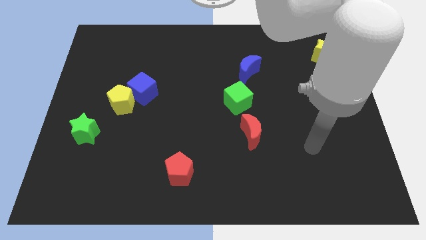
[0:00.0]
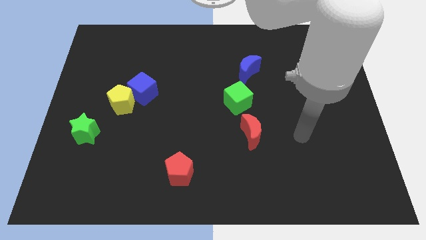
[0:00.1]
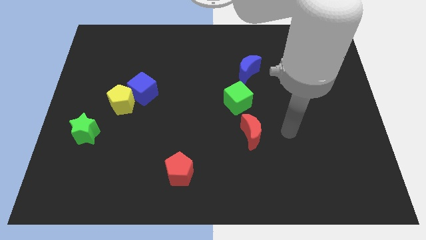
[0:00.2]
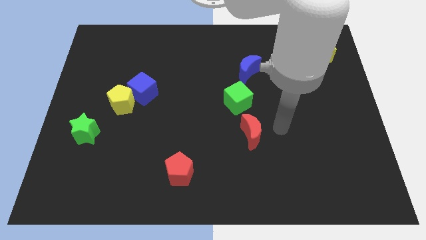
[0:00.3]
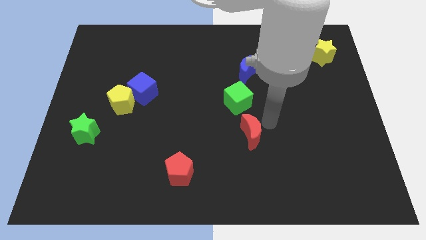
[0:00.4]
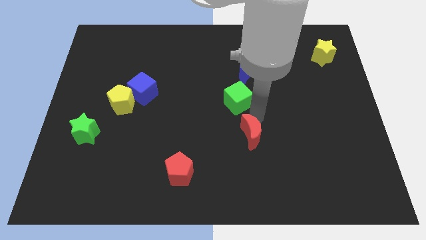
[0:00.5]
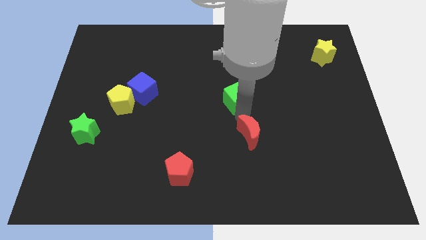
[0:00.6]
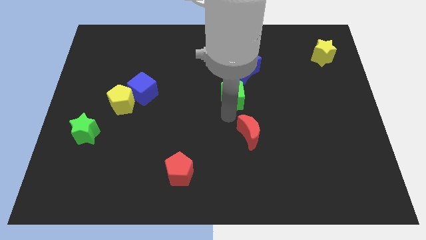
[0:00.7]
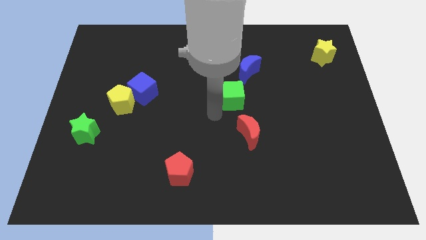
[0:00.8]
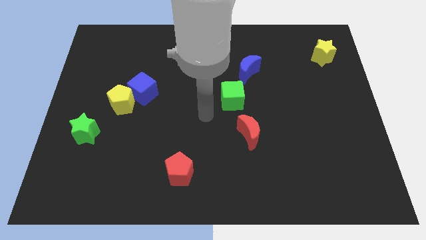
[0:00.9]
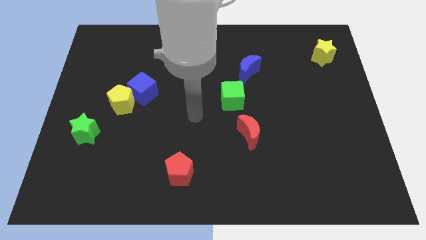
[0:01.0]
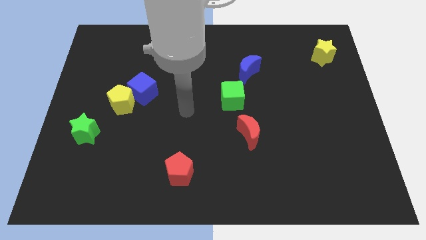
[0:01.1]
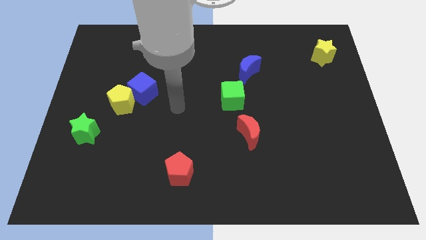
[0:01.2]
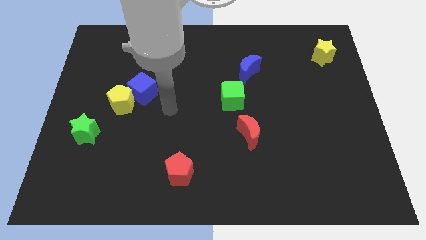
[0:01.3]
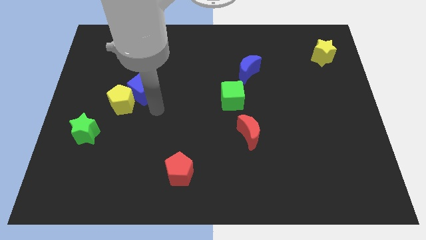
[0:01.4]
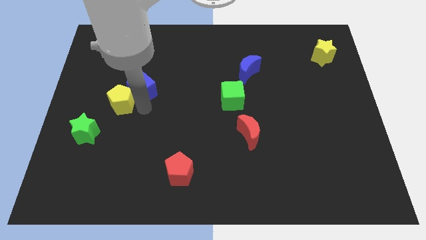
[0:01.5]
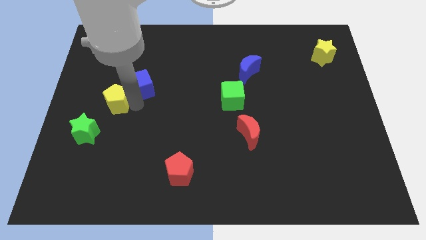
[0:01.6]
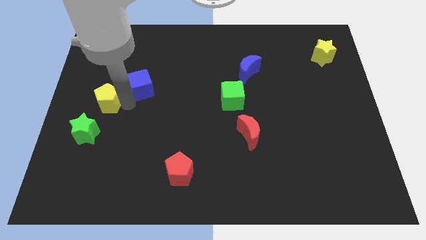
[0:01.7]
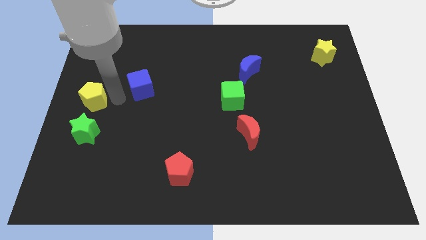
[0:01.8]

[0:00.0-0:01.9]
pull the blue cube apart from the yellow pentagon

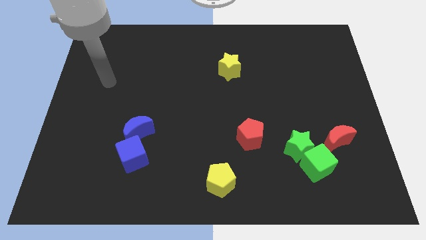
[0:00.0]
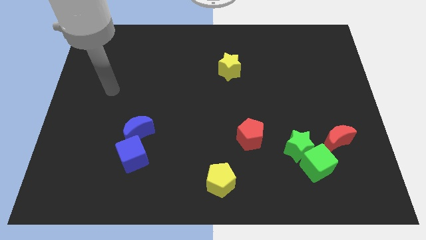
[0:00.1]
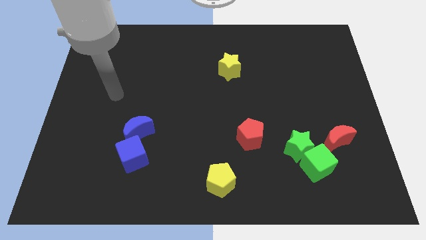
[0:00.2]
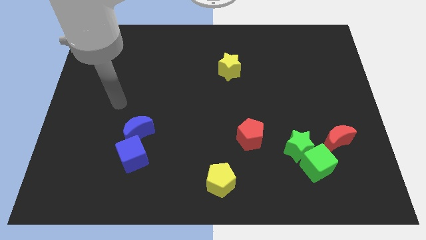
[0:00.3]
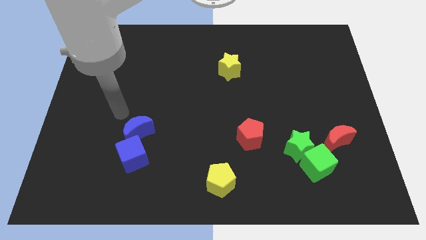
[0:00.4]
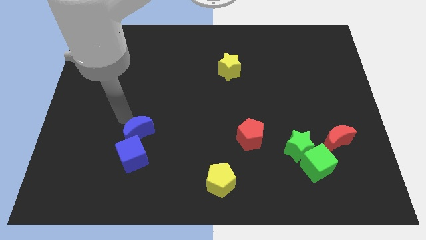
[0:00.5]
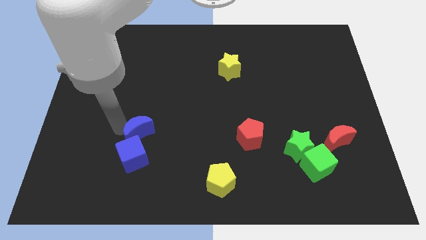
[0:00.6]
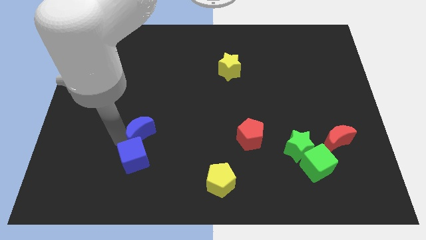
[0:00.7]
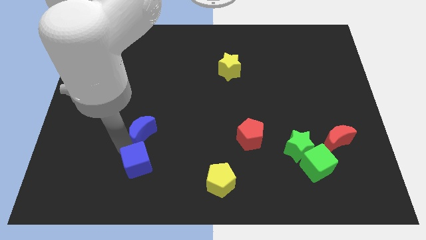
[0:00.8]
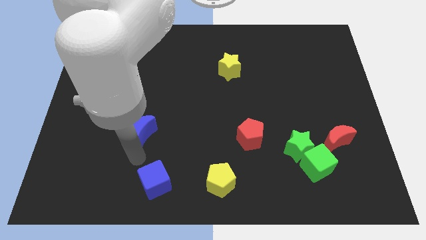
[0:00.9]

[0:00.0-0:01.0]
separate the blue moon from the blue cube

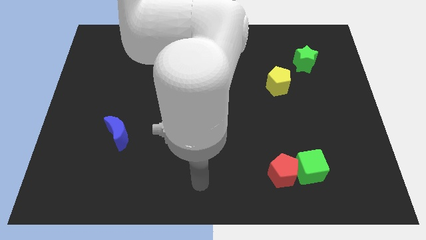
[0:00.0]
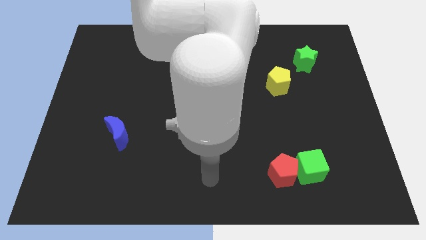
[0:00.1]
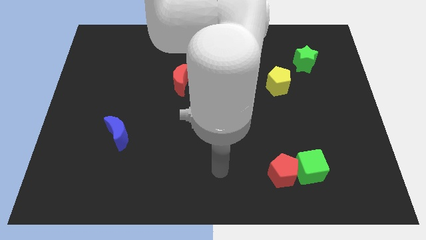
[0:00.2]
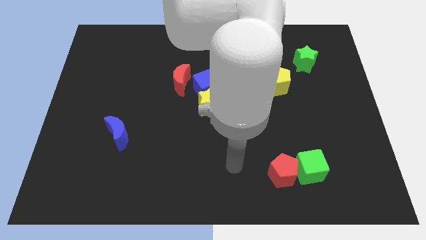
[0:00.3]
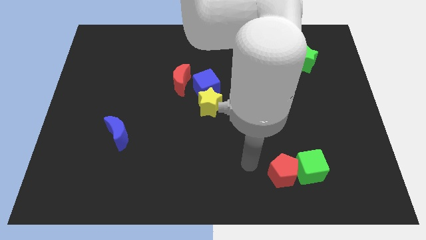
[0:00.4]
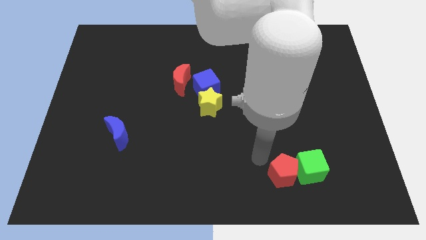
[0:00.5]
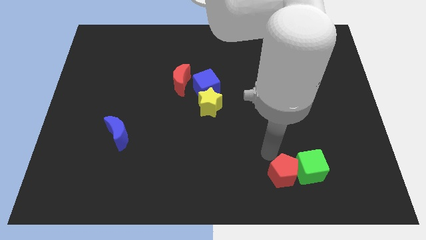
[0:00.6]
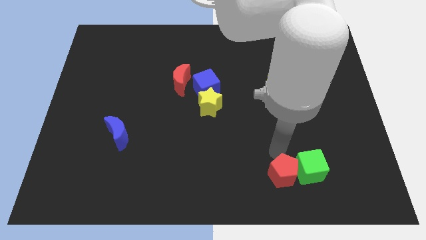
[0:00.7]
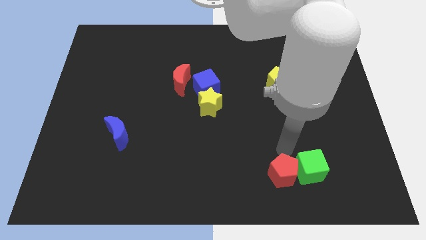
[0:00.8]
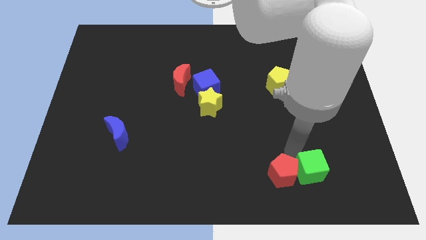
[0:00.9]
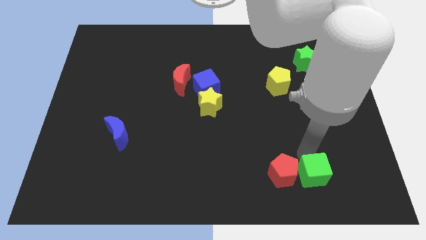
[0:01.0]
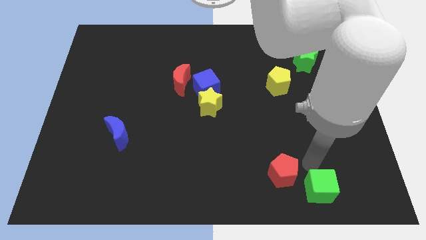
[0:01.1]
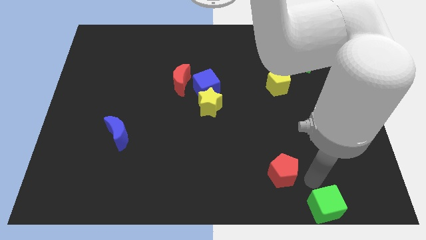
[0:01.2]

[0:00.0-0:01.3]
pull the red pentagon apart from the green cube

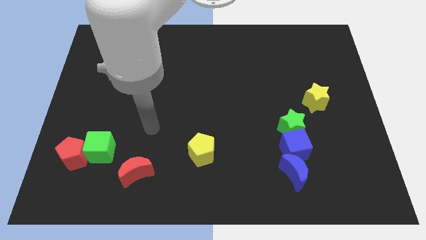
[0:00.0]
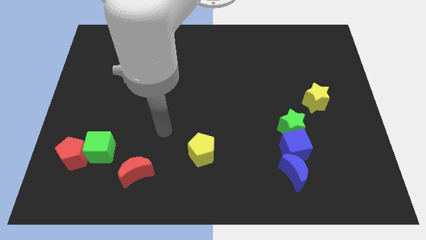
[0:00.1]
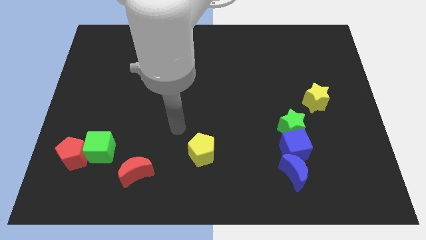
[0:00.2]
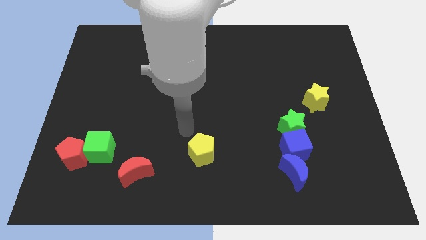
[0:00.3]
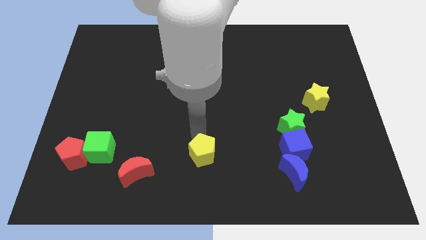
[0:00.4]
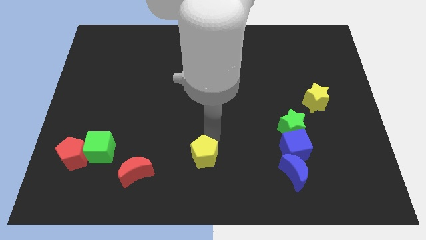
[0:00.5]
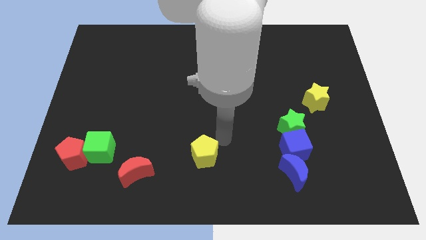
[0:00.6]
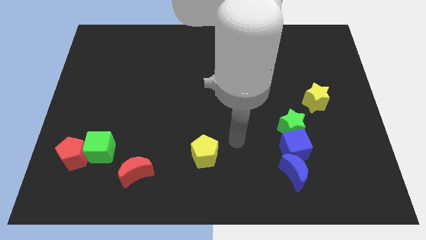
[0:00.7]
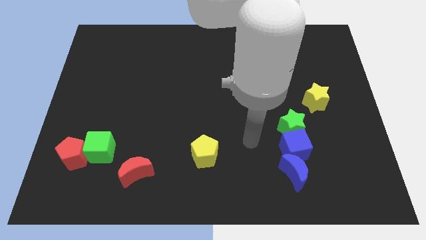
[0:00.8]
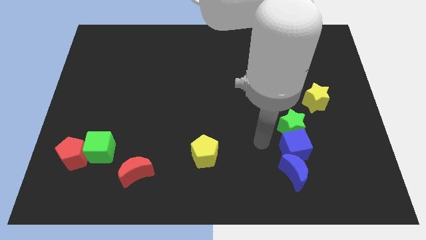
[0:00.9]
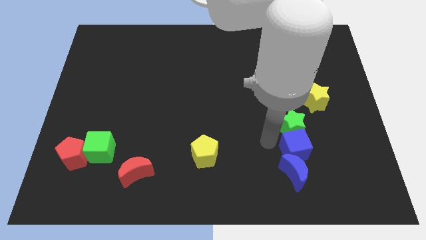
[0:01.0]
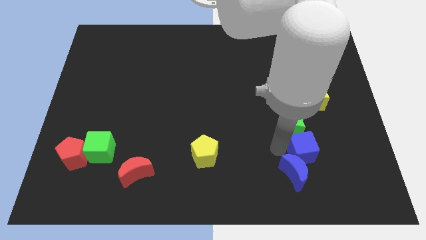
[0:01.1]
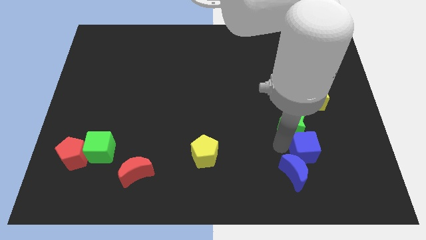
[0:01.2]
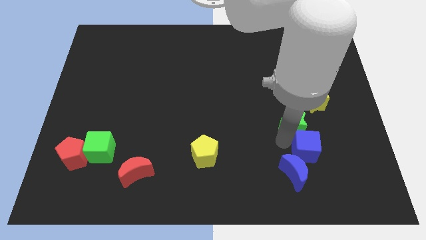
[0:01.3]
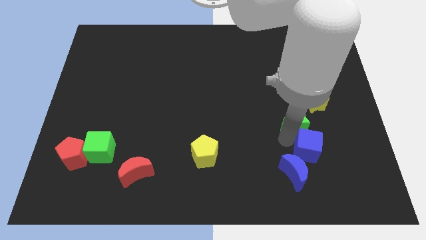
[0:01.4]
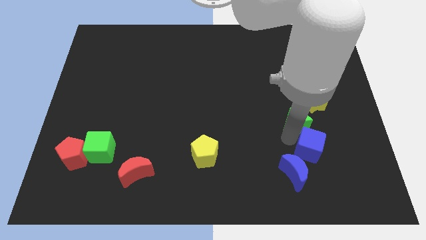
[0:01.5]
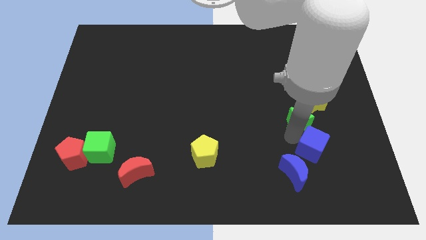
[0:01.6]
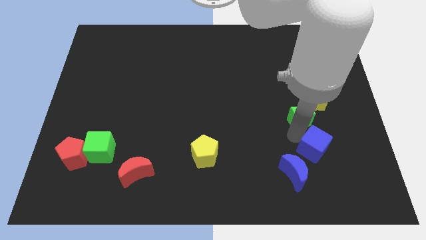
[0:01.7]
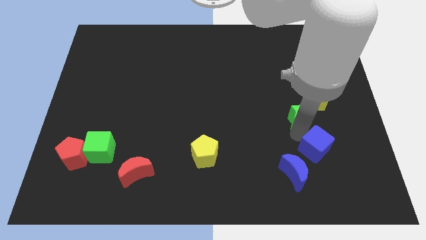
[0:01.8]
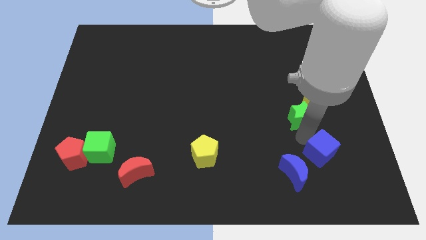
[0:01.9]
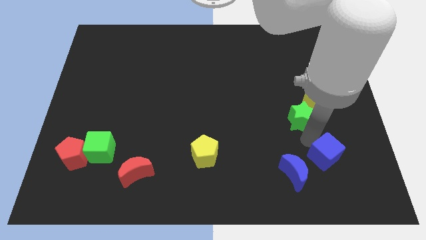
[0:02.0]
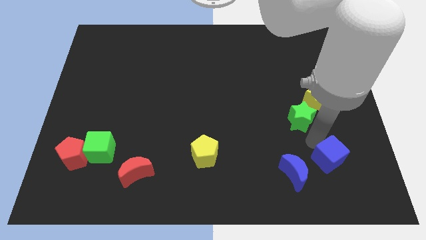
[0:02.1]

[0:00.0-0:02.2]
move the green star away from the blue cube

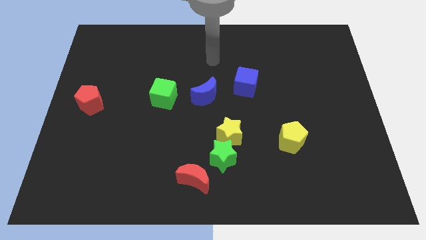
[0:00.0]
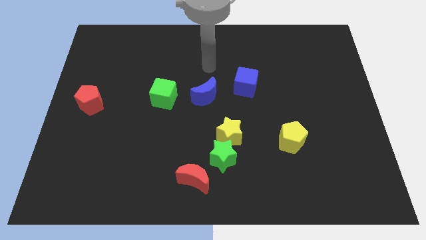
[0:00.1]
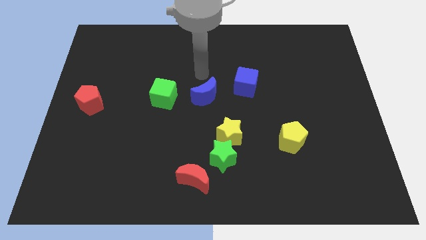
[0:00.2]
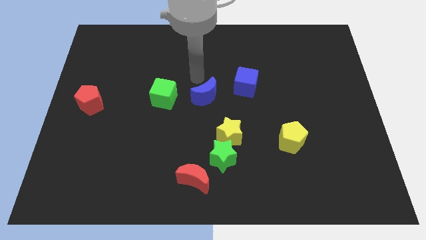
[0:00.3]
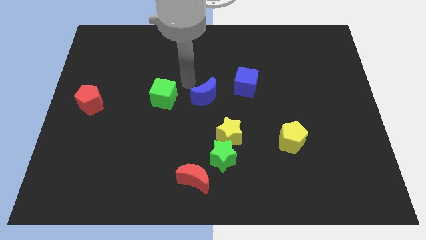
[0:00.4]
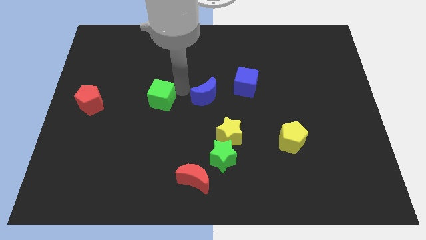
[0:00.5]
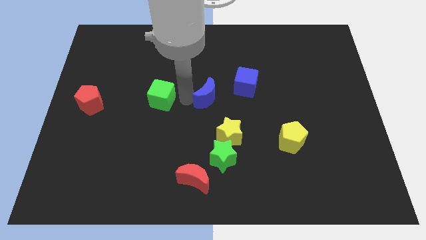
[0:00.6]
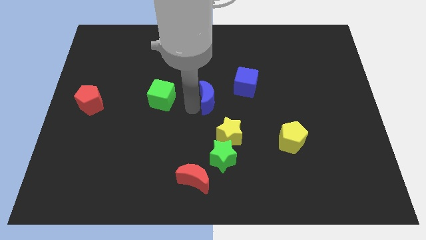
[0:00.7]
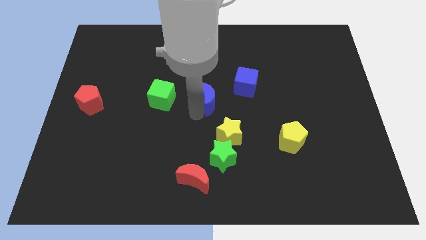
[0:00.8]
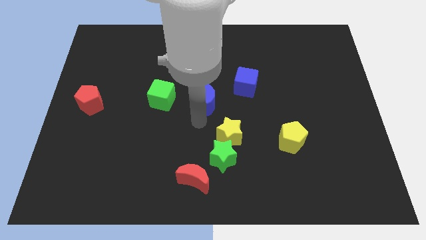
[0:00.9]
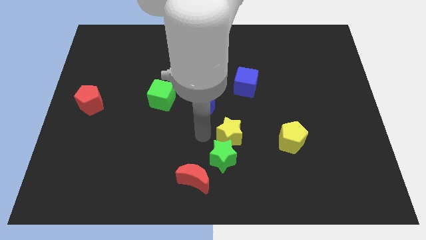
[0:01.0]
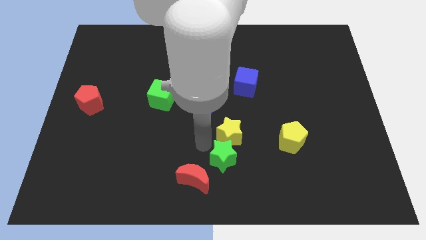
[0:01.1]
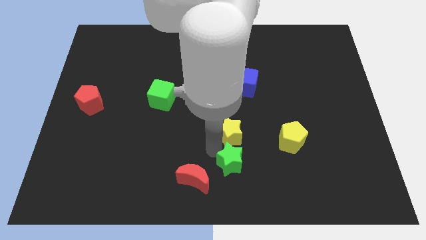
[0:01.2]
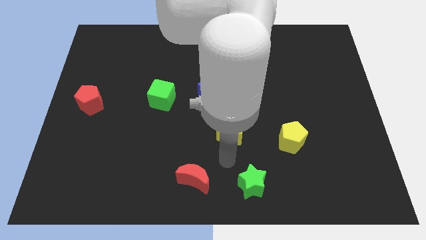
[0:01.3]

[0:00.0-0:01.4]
separate the yellow star from the green star

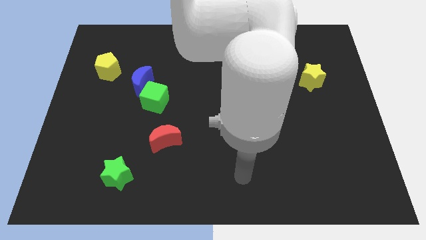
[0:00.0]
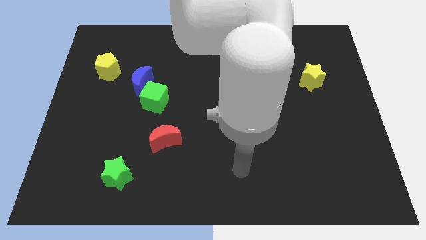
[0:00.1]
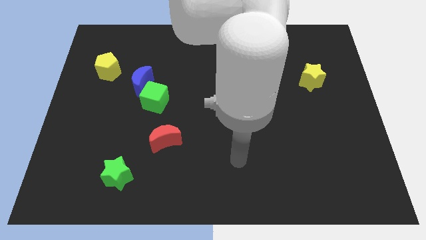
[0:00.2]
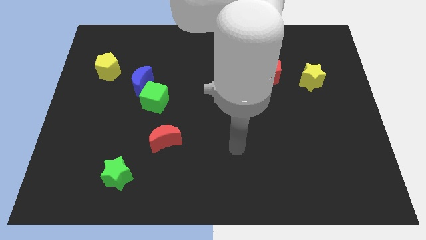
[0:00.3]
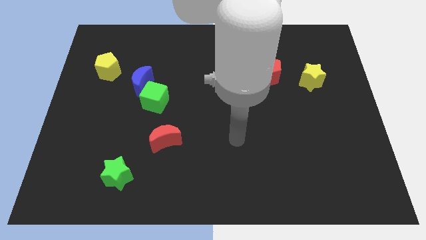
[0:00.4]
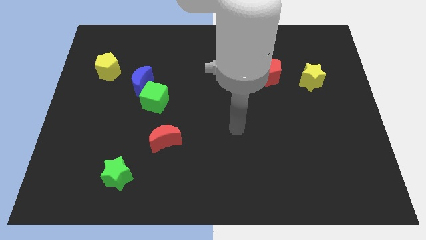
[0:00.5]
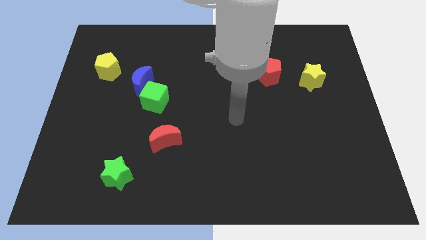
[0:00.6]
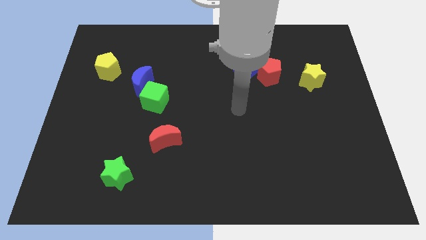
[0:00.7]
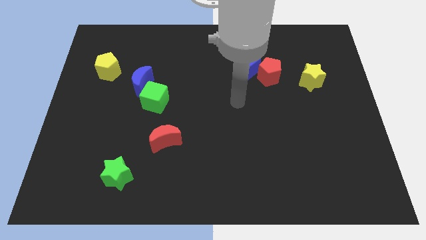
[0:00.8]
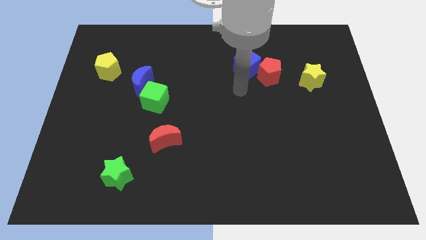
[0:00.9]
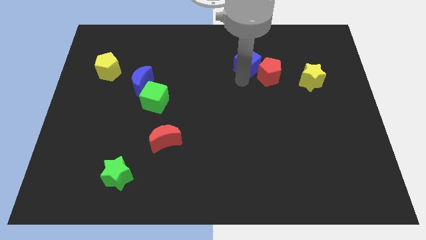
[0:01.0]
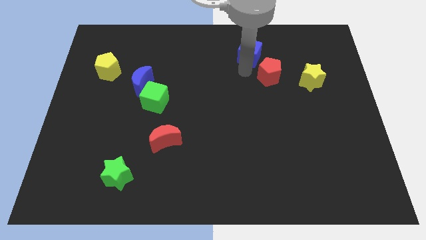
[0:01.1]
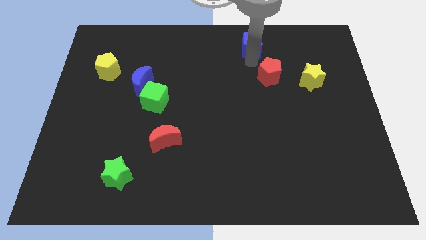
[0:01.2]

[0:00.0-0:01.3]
pull the red pentagon apart from the blue cube
